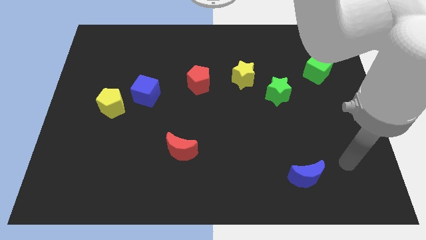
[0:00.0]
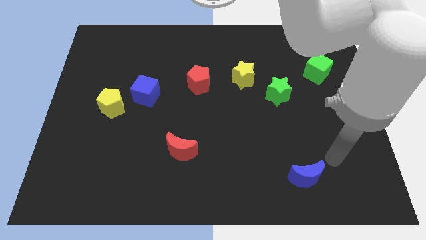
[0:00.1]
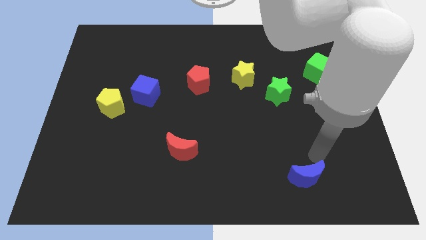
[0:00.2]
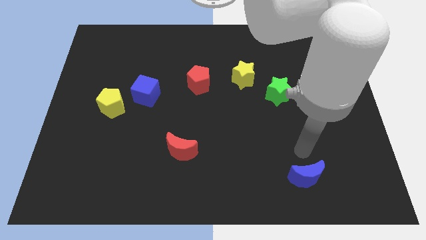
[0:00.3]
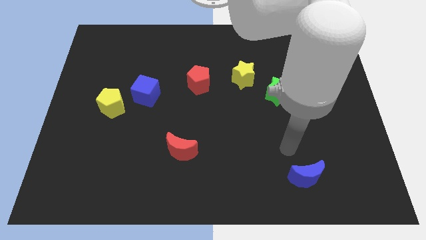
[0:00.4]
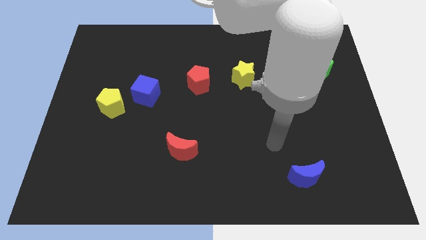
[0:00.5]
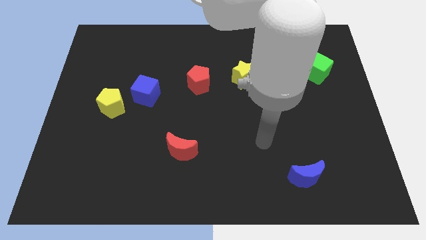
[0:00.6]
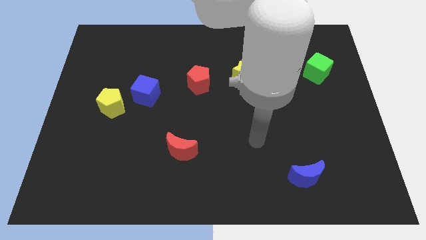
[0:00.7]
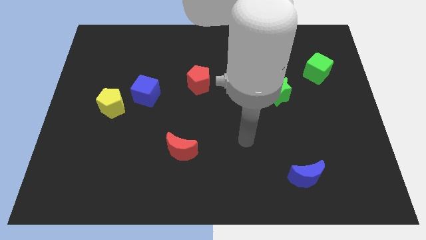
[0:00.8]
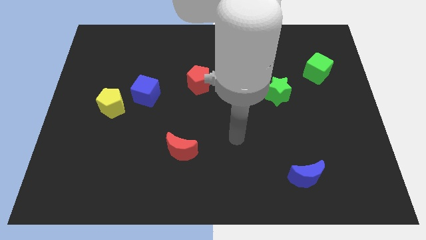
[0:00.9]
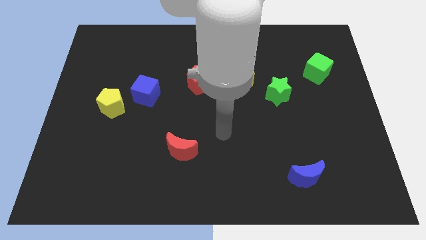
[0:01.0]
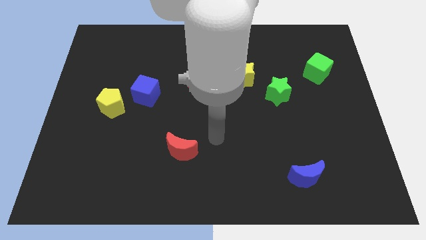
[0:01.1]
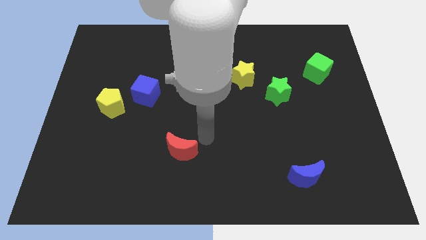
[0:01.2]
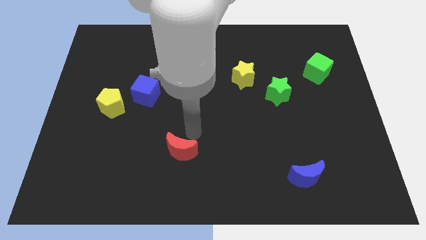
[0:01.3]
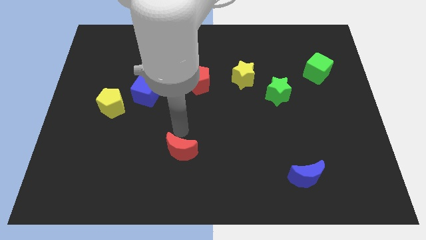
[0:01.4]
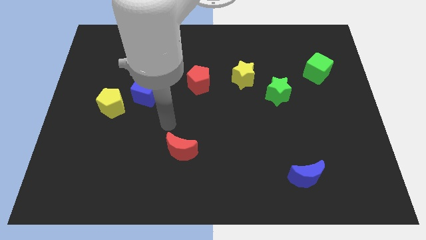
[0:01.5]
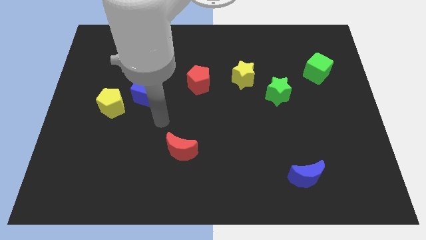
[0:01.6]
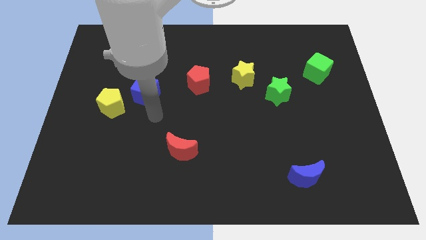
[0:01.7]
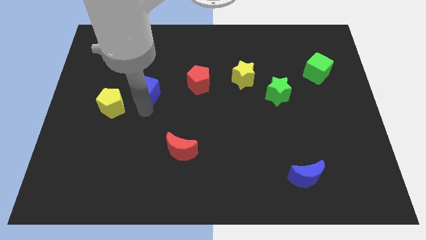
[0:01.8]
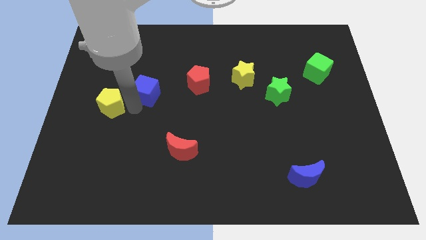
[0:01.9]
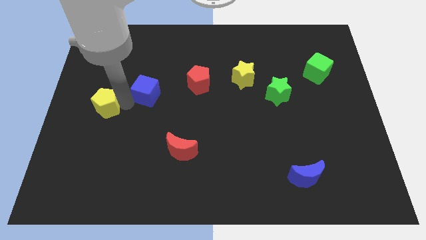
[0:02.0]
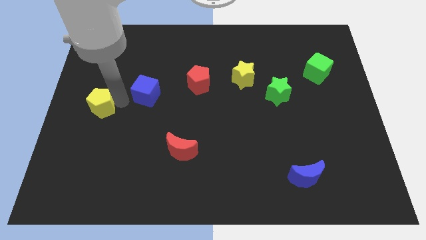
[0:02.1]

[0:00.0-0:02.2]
move the blue cube away from the yellow pentagon

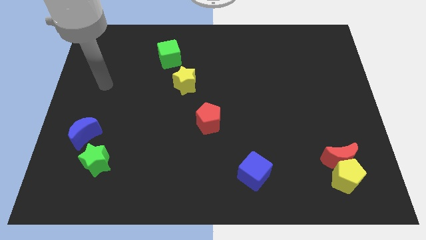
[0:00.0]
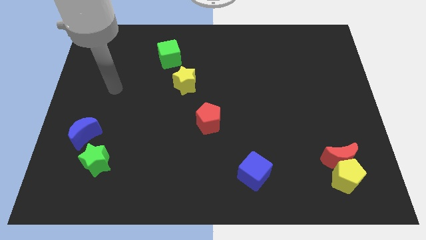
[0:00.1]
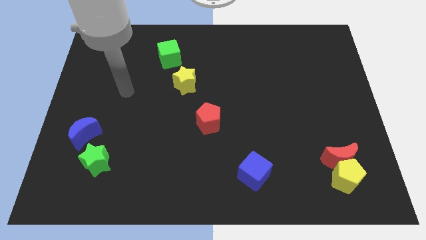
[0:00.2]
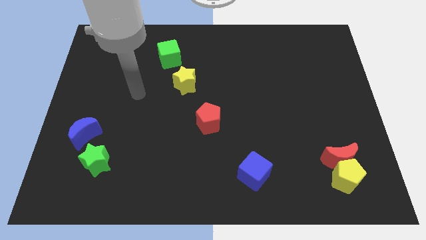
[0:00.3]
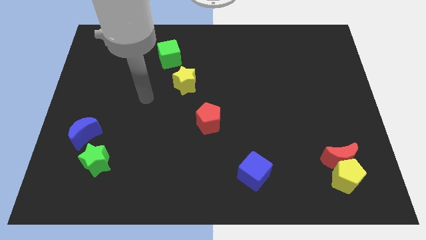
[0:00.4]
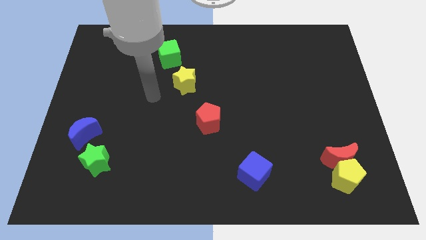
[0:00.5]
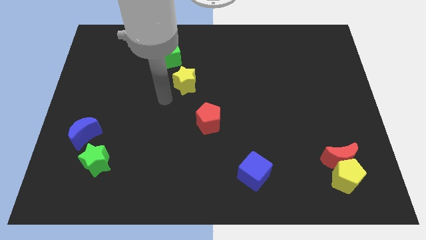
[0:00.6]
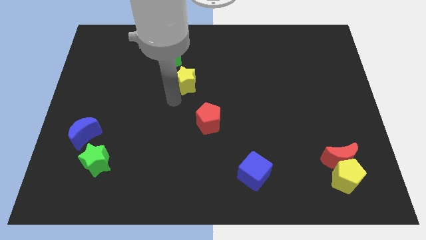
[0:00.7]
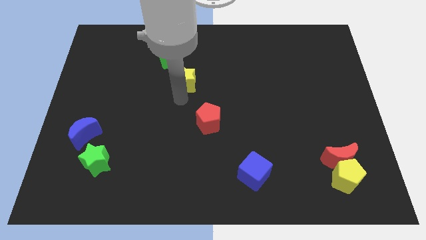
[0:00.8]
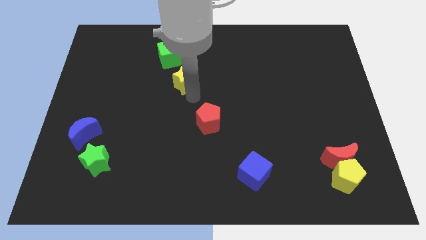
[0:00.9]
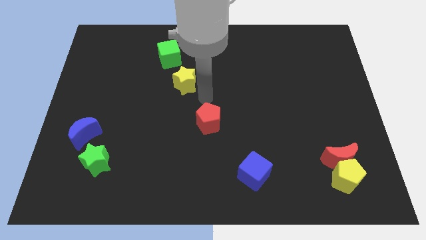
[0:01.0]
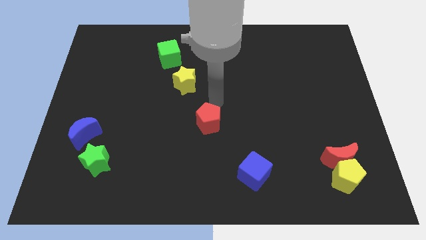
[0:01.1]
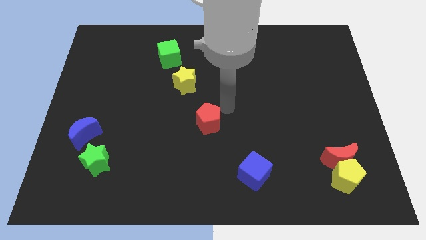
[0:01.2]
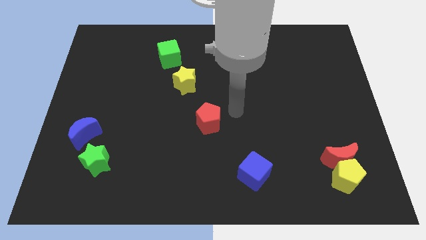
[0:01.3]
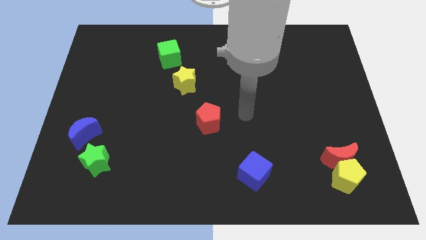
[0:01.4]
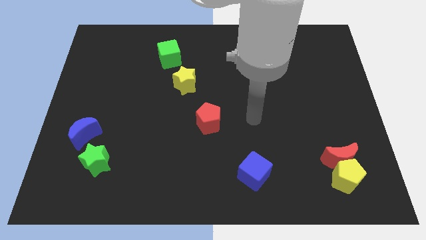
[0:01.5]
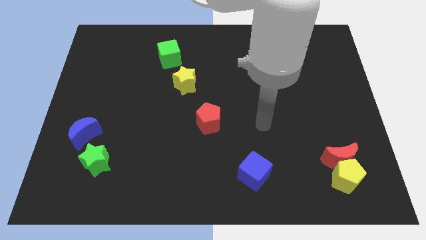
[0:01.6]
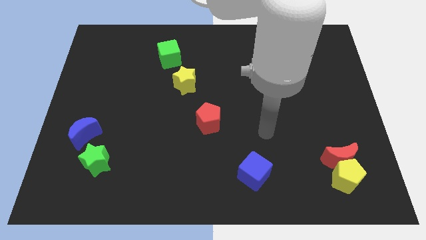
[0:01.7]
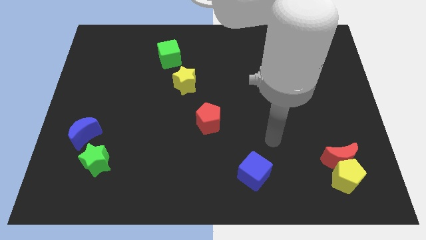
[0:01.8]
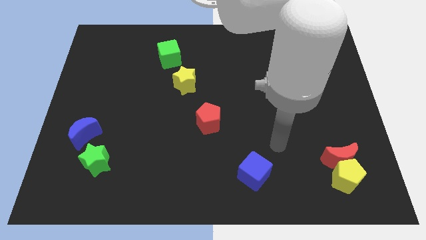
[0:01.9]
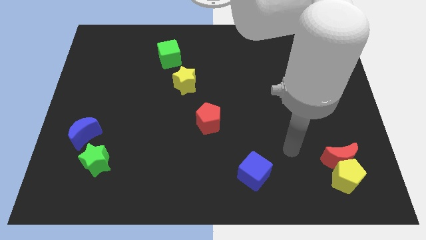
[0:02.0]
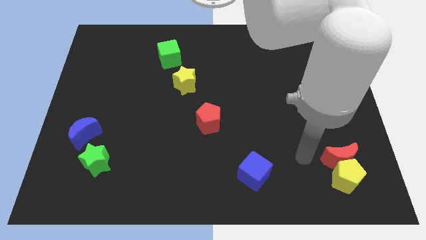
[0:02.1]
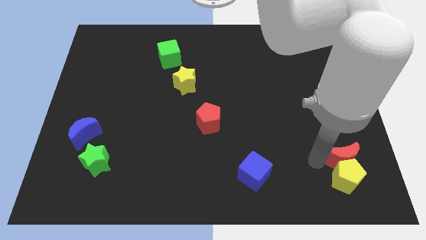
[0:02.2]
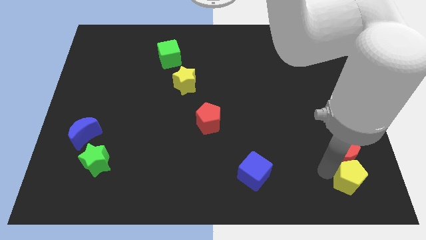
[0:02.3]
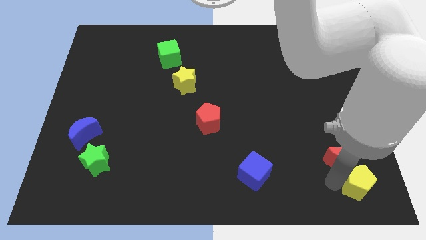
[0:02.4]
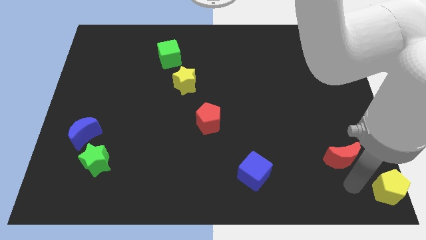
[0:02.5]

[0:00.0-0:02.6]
pull the red moon apart from the yellow pentagon

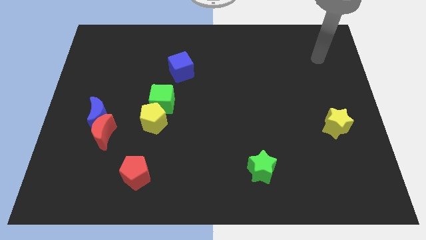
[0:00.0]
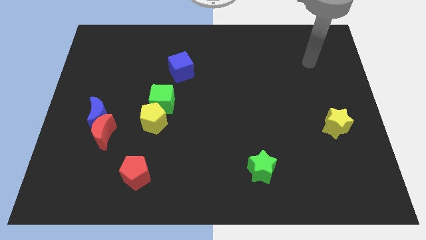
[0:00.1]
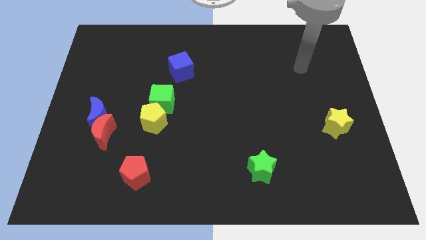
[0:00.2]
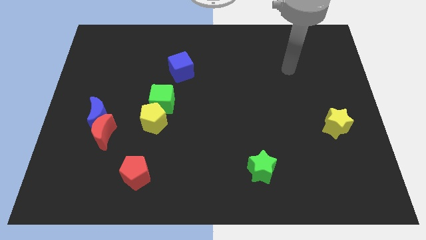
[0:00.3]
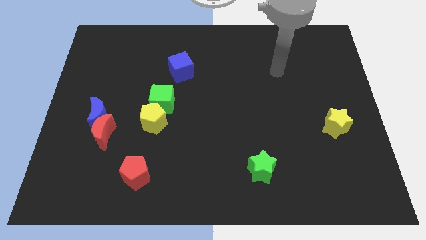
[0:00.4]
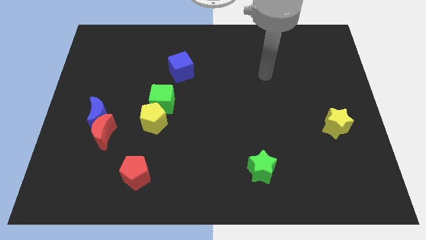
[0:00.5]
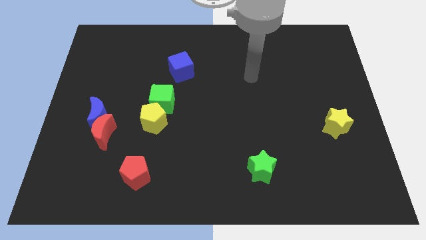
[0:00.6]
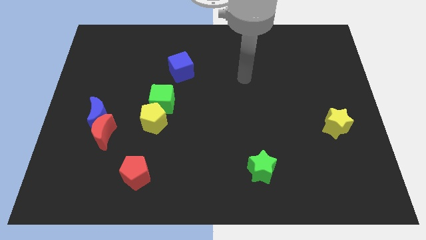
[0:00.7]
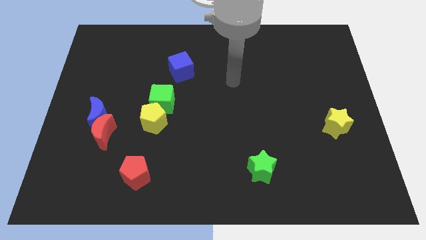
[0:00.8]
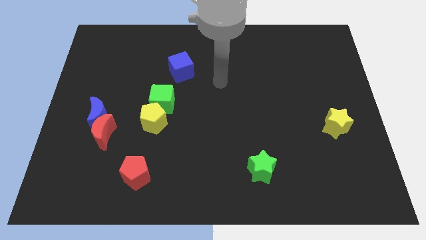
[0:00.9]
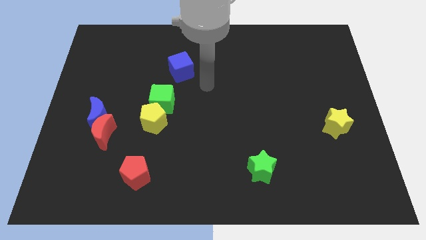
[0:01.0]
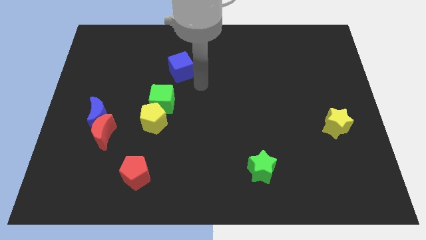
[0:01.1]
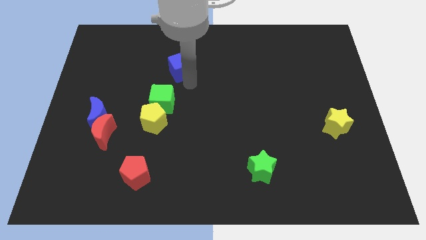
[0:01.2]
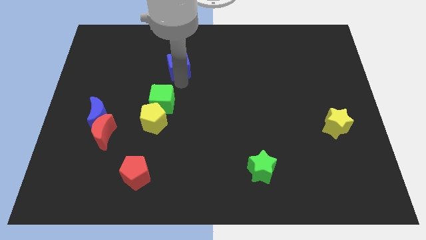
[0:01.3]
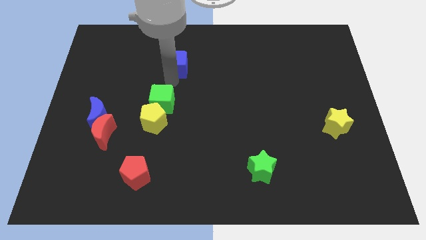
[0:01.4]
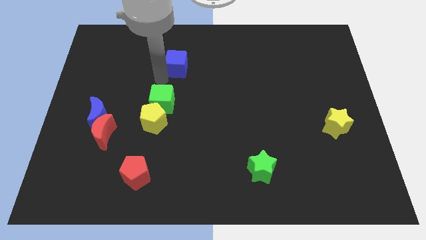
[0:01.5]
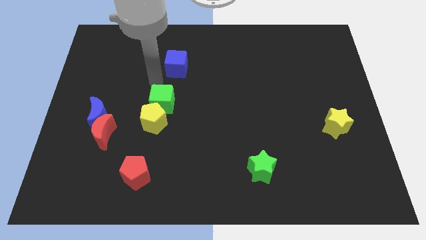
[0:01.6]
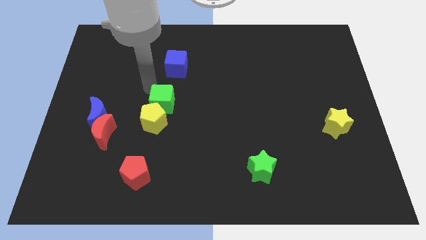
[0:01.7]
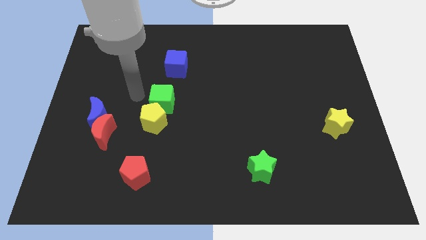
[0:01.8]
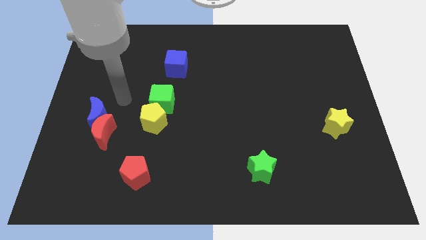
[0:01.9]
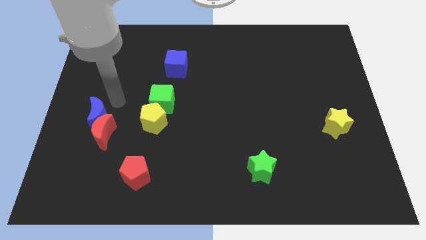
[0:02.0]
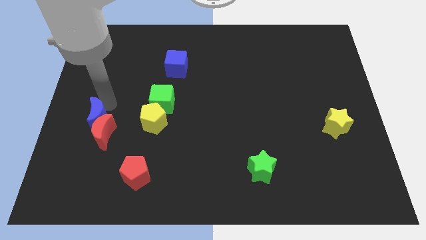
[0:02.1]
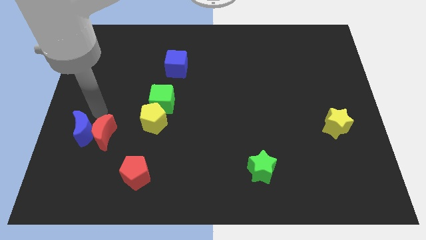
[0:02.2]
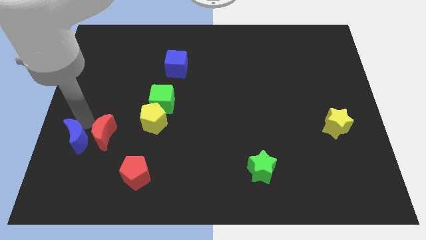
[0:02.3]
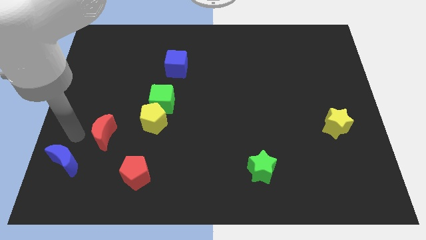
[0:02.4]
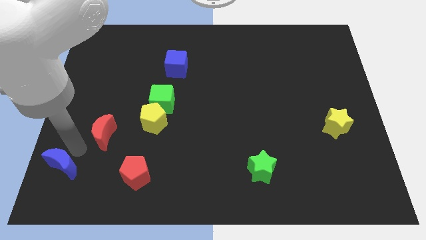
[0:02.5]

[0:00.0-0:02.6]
pull the red moon apart from the blue moon

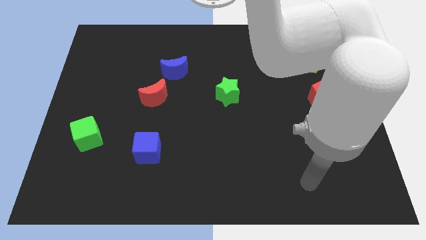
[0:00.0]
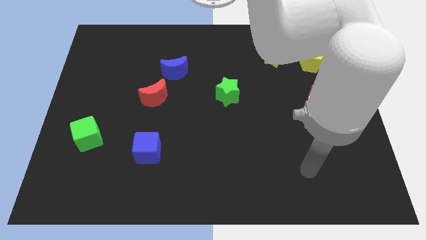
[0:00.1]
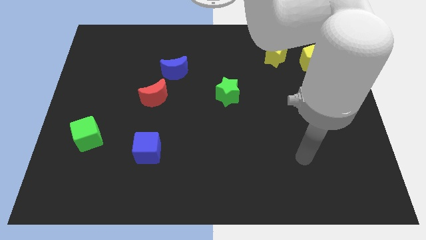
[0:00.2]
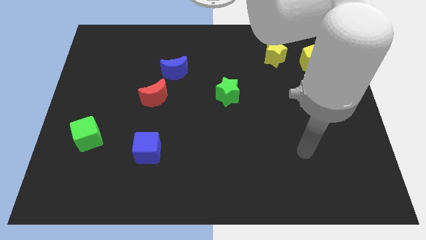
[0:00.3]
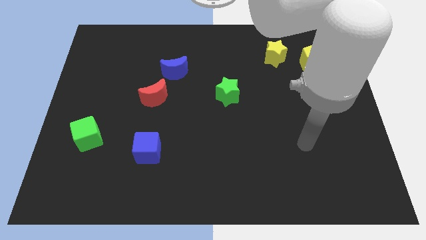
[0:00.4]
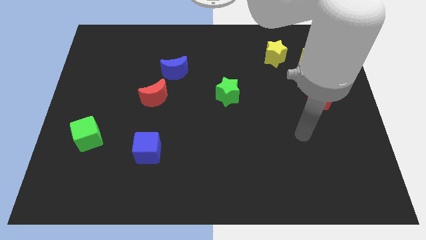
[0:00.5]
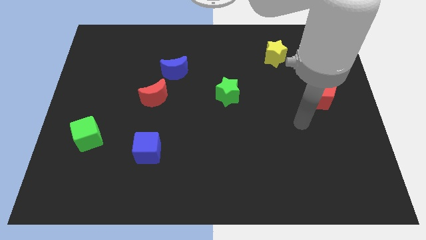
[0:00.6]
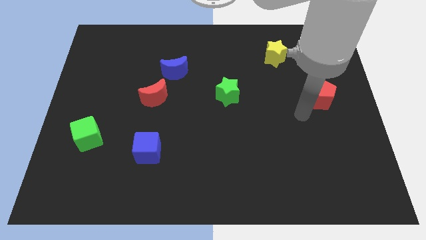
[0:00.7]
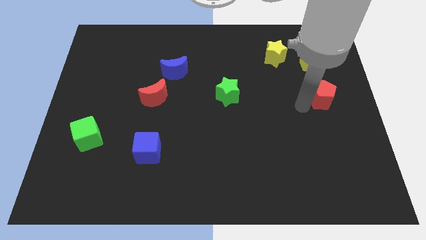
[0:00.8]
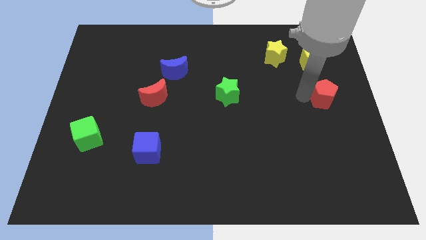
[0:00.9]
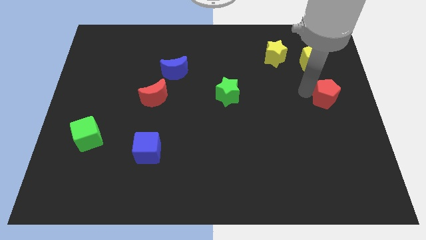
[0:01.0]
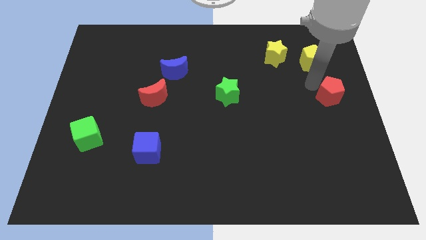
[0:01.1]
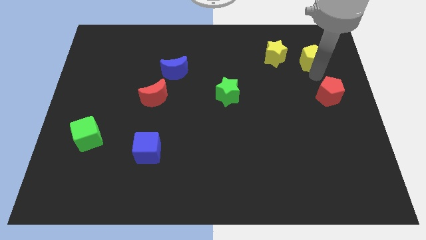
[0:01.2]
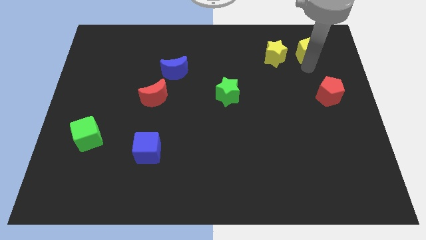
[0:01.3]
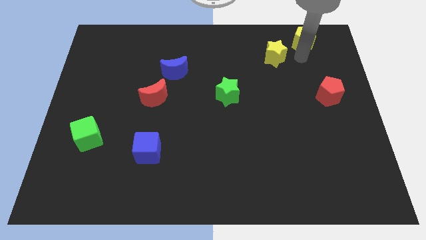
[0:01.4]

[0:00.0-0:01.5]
separate the yellow star from the yellow pentagon

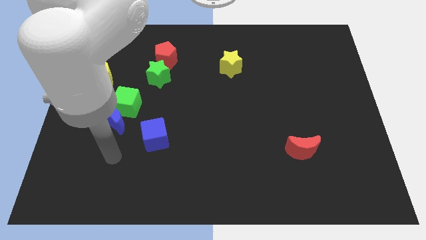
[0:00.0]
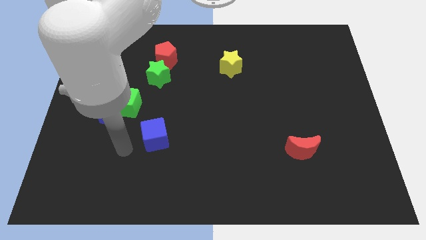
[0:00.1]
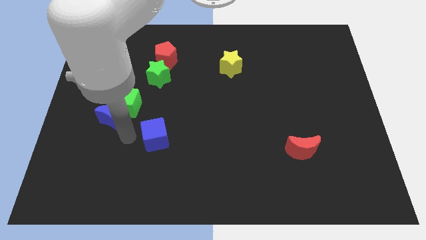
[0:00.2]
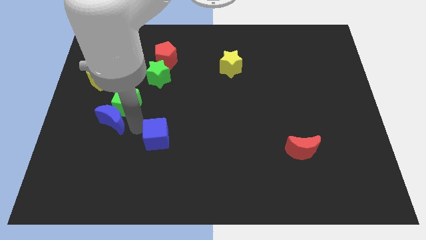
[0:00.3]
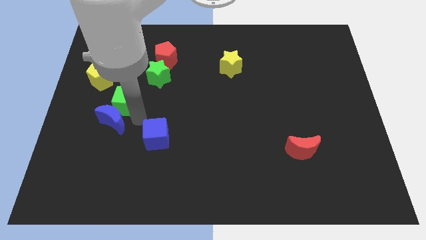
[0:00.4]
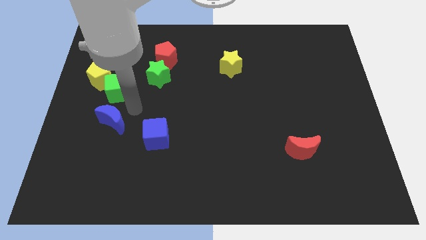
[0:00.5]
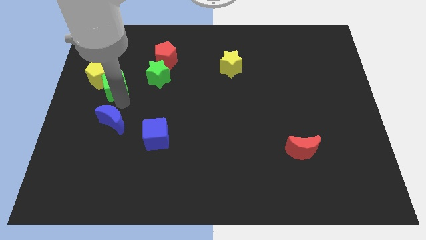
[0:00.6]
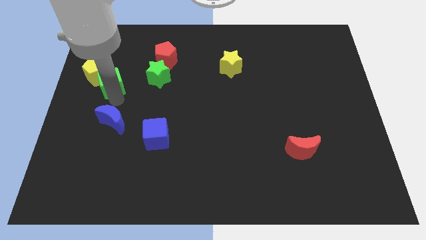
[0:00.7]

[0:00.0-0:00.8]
separate the blue moon from the green cube
